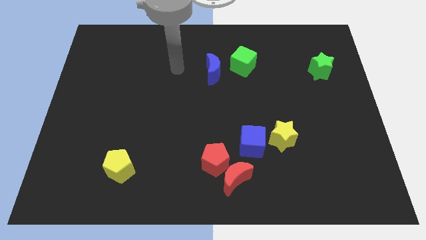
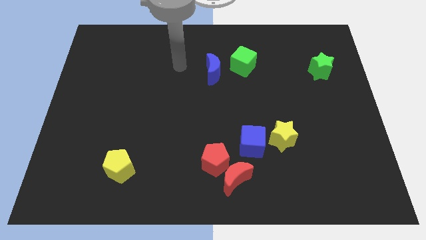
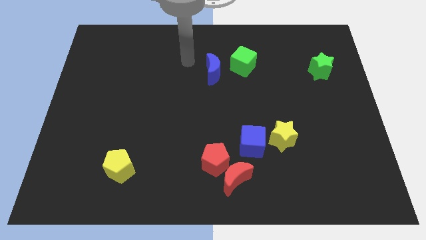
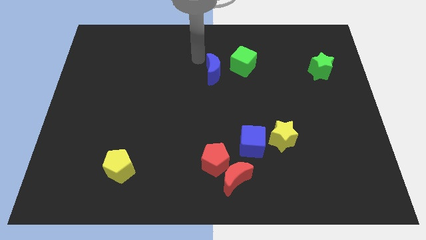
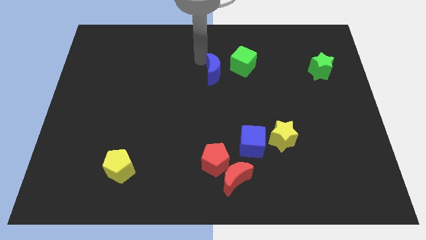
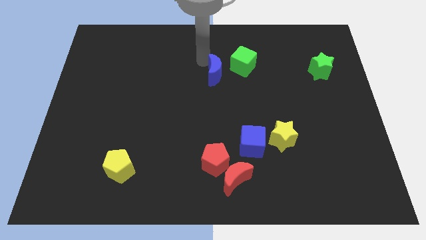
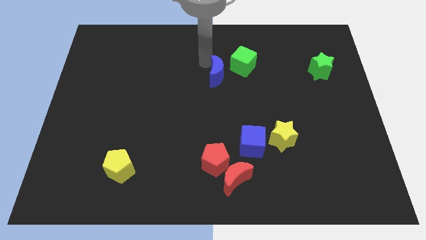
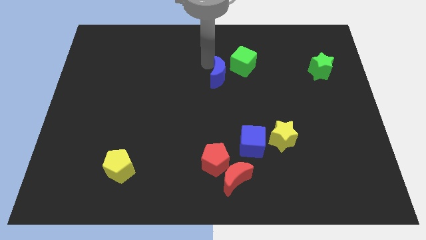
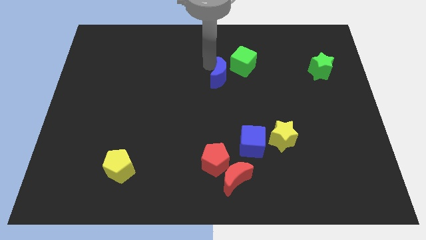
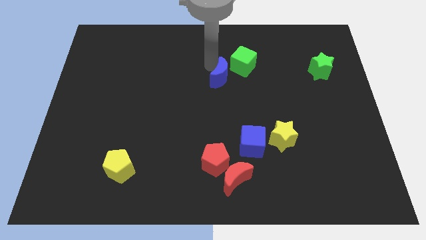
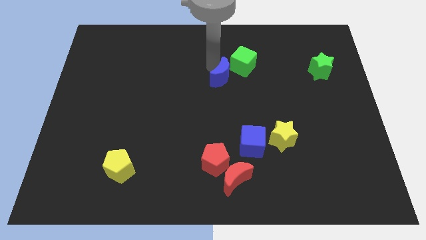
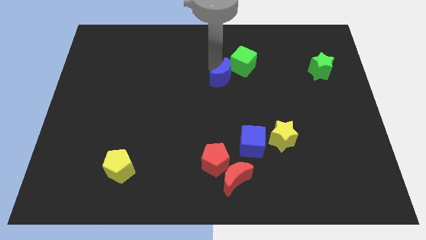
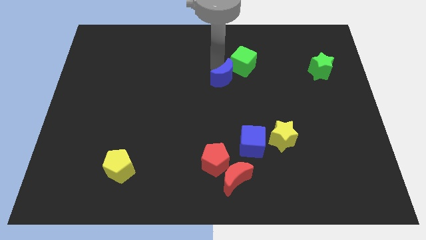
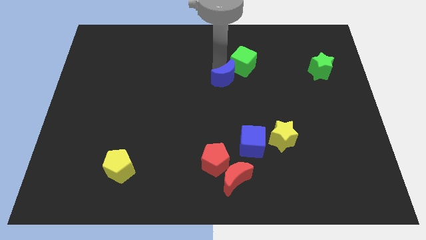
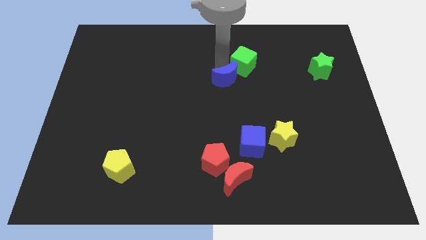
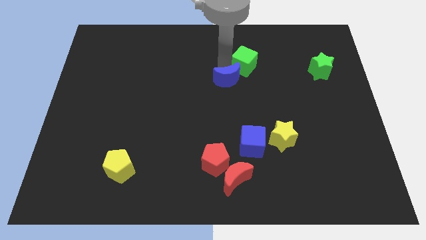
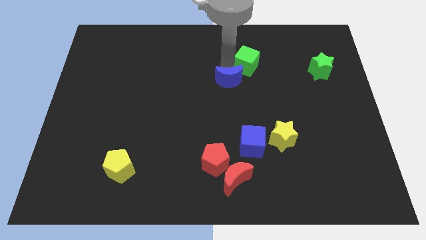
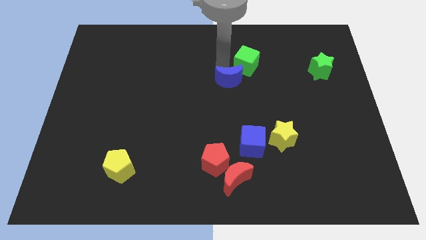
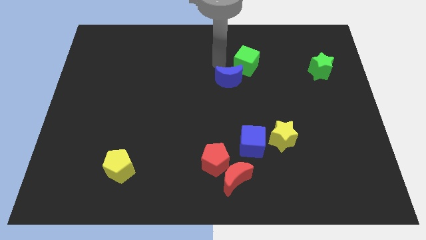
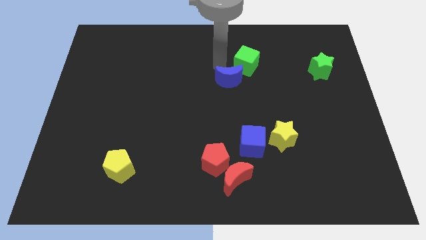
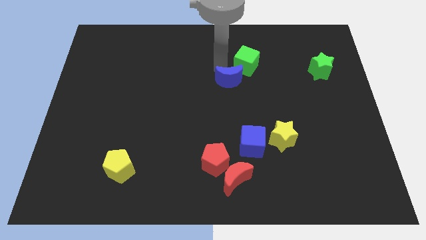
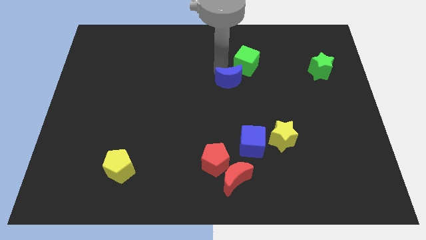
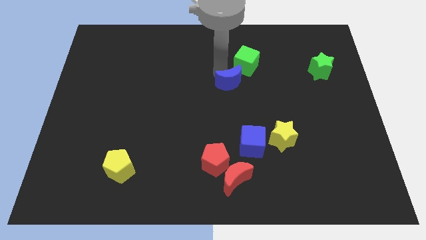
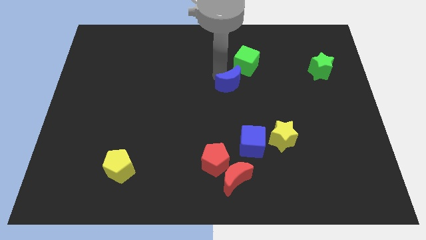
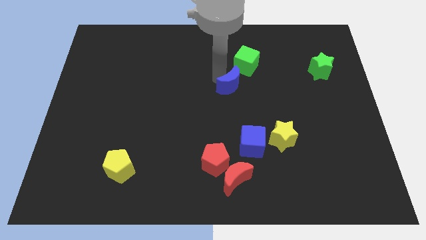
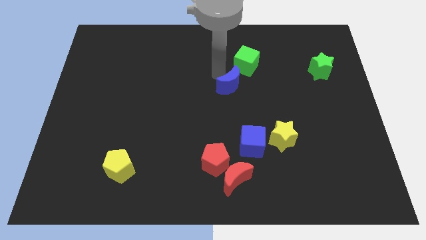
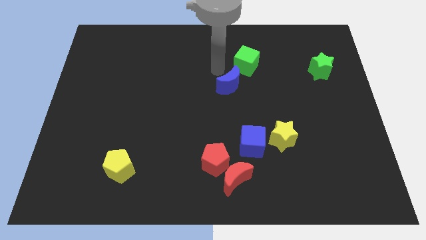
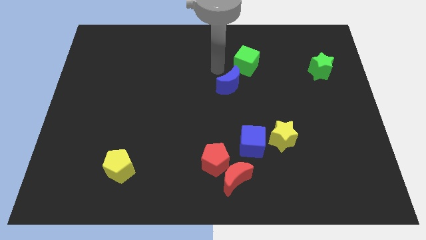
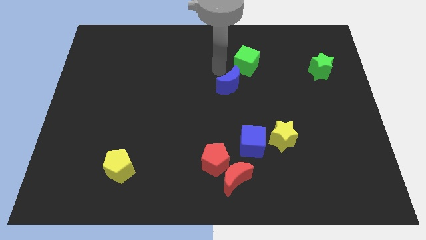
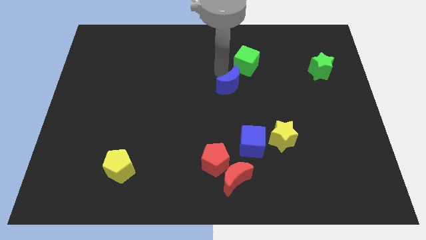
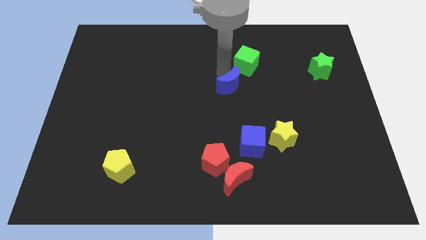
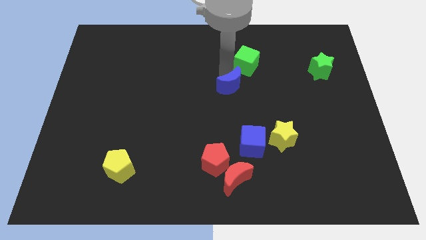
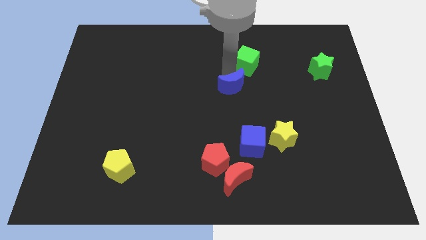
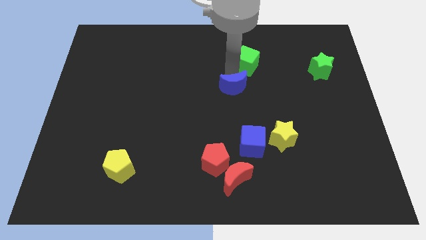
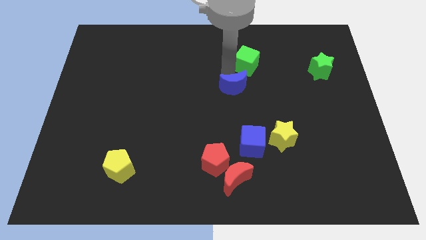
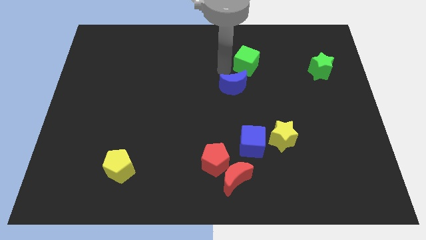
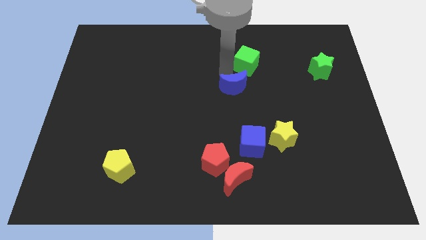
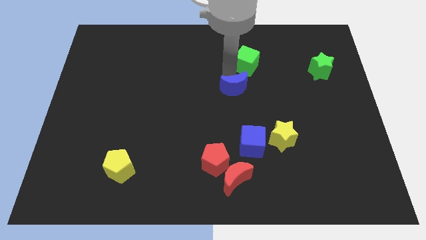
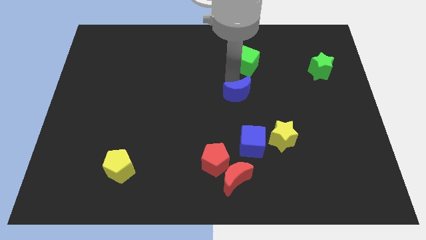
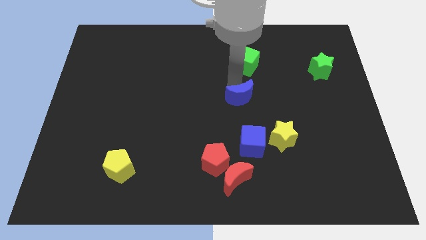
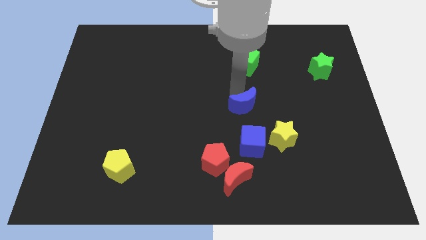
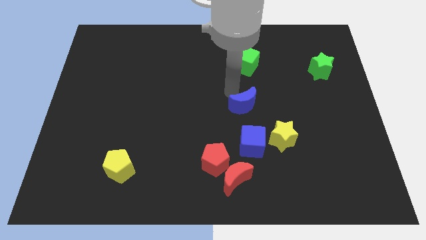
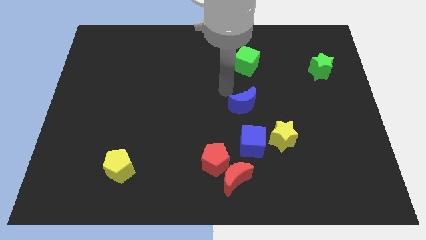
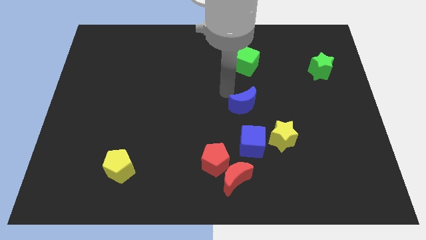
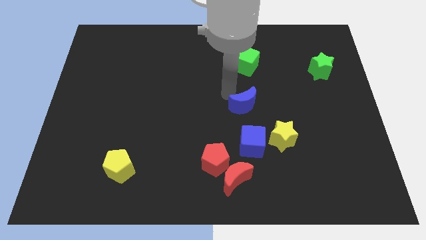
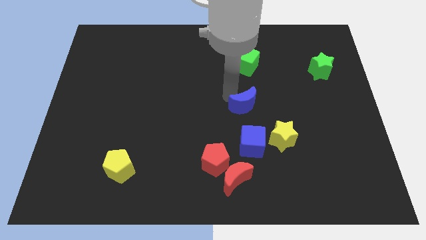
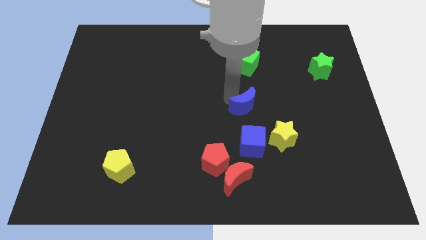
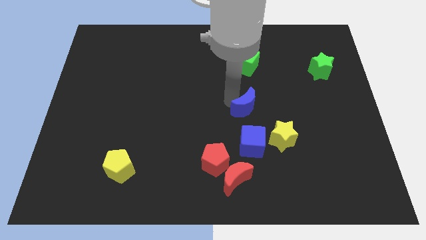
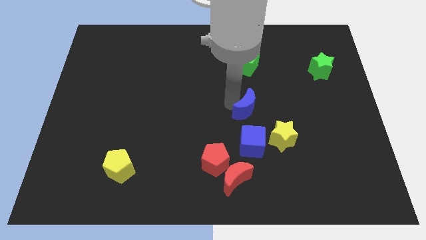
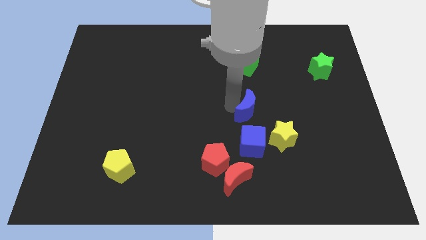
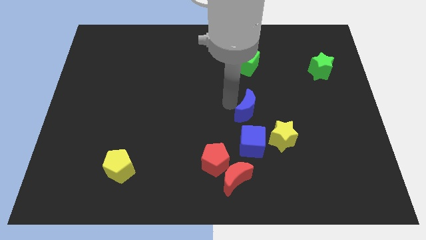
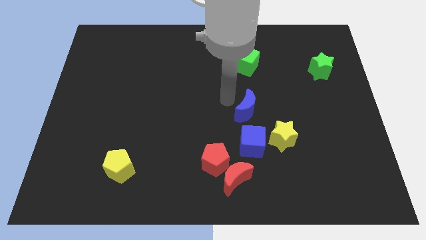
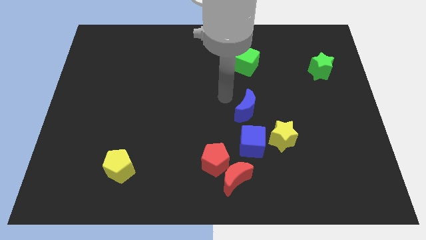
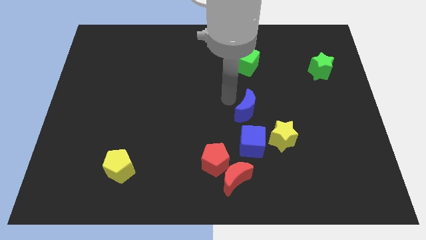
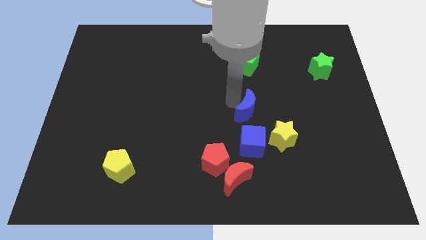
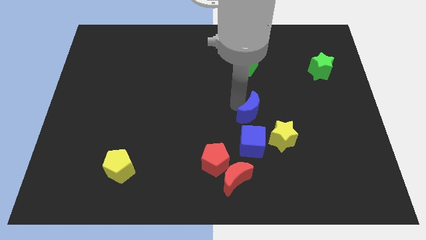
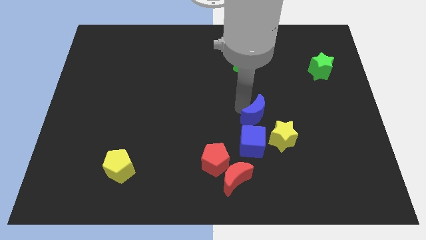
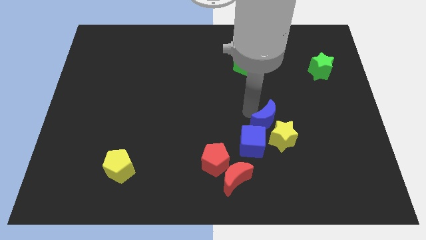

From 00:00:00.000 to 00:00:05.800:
put the blue moon close to the yellow star

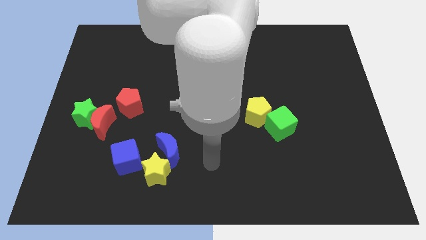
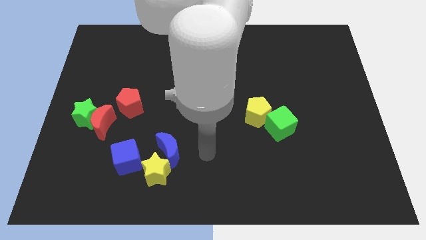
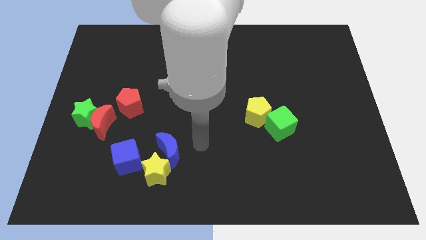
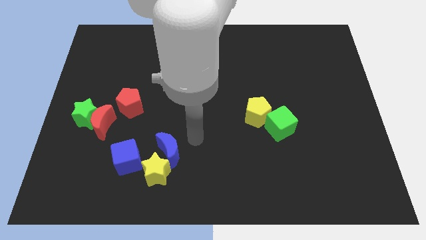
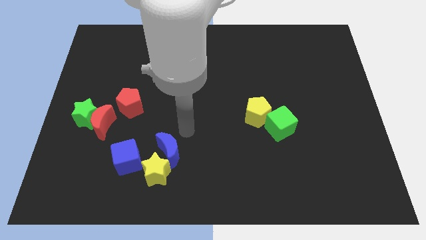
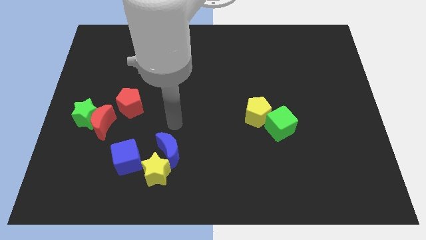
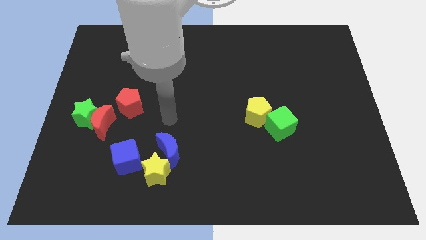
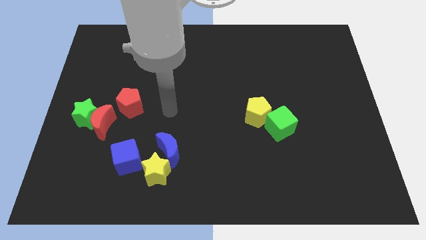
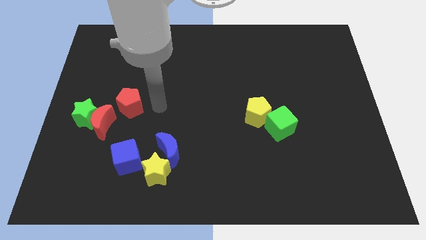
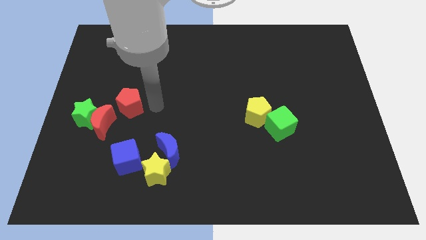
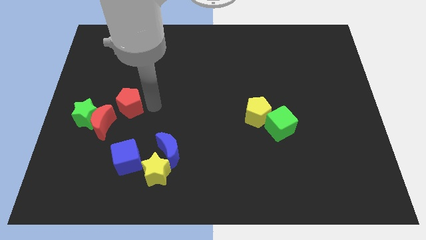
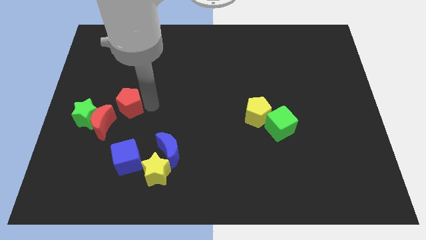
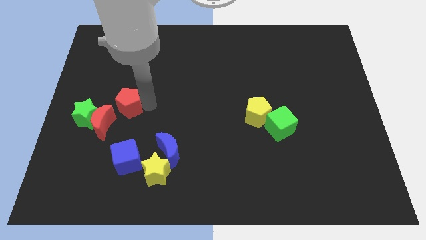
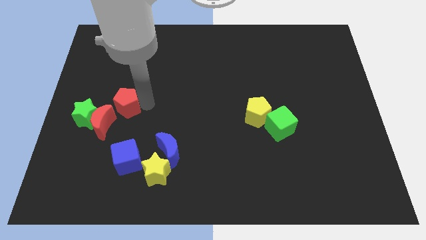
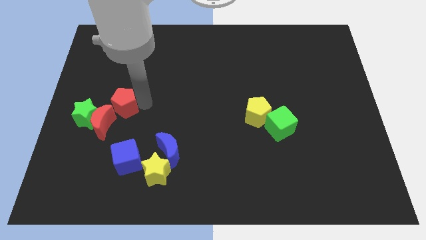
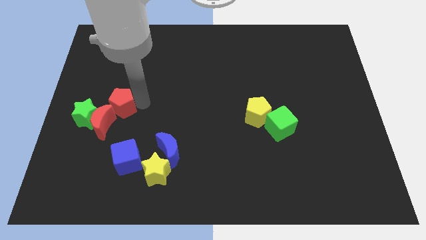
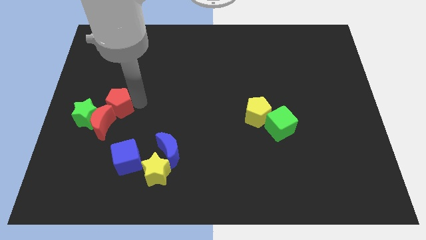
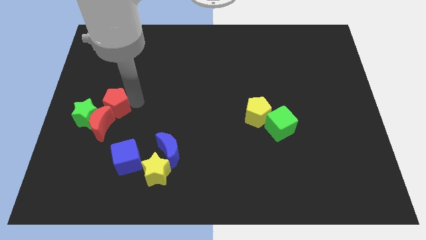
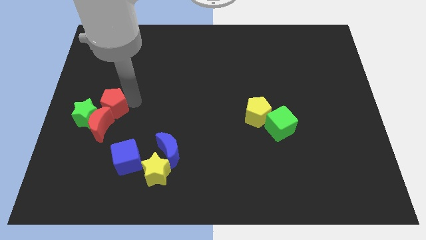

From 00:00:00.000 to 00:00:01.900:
slide the red pentagon towards the green star
